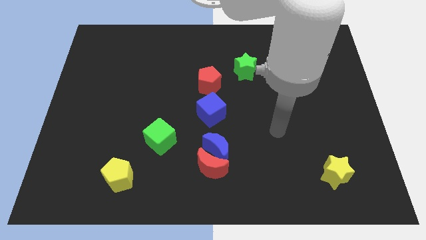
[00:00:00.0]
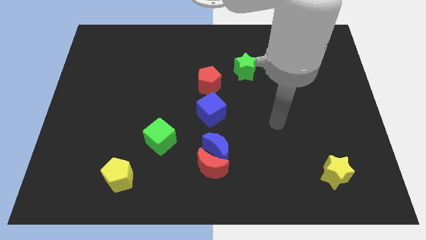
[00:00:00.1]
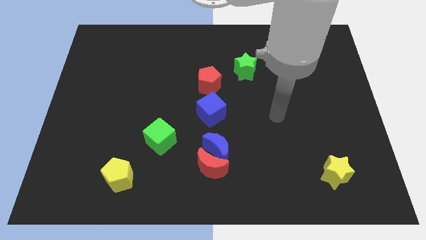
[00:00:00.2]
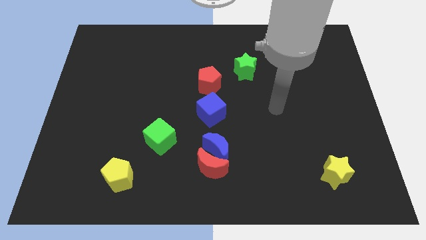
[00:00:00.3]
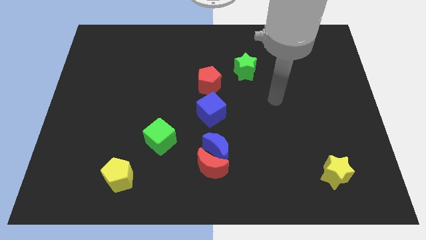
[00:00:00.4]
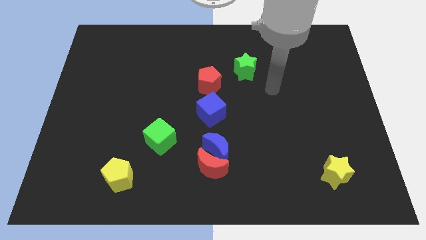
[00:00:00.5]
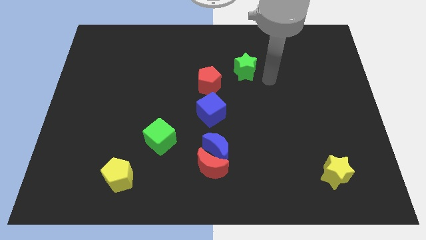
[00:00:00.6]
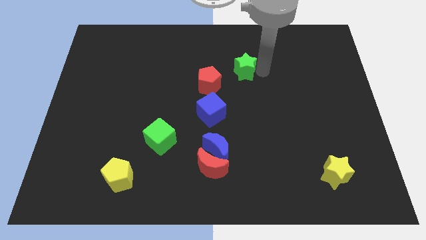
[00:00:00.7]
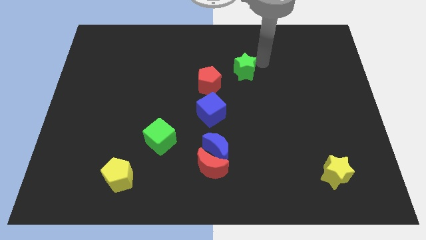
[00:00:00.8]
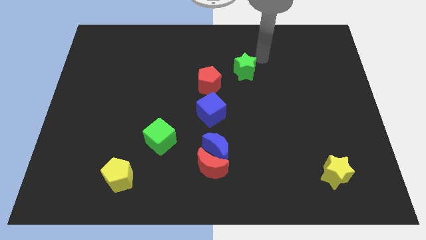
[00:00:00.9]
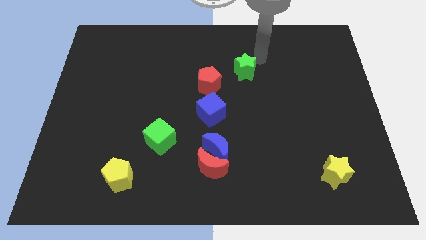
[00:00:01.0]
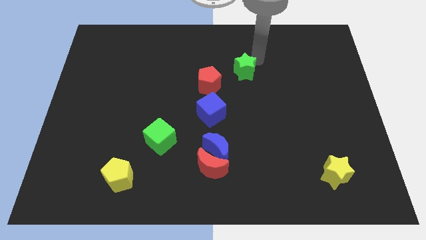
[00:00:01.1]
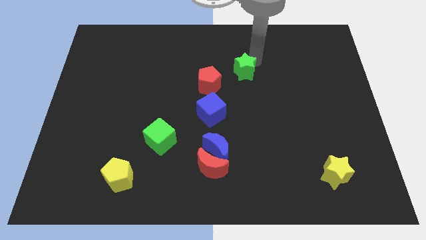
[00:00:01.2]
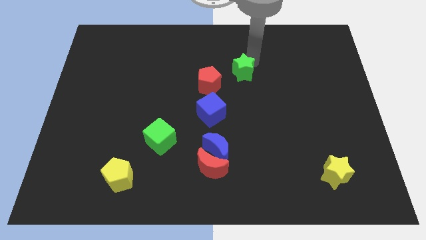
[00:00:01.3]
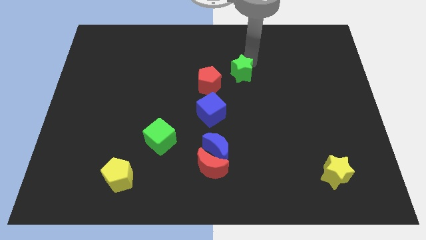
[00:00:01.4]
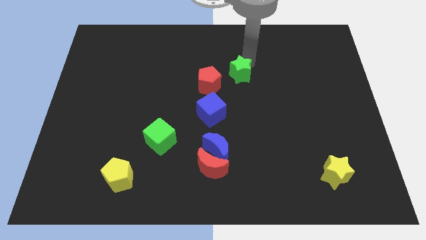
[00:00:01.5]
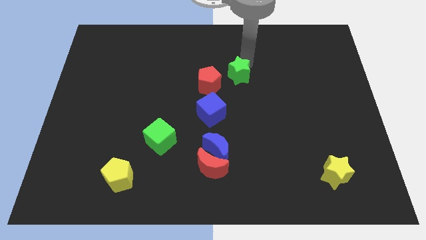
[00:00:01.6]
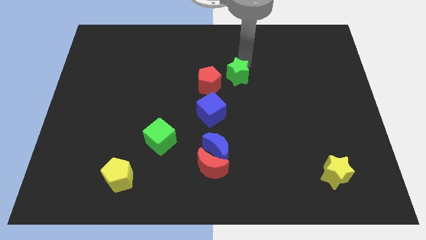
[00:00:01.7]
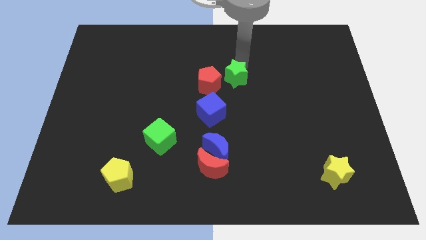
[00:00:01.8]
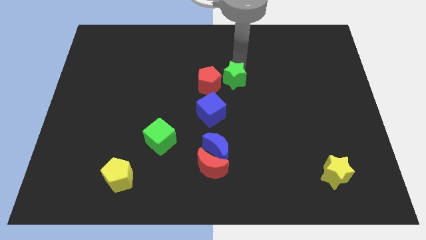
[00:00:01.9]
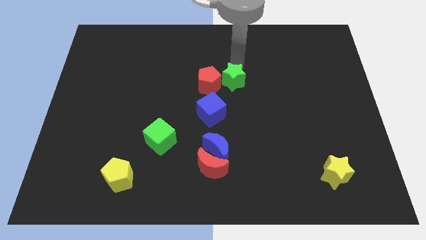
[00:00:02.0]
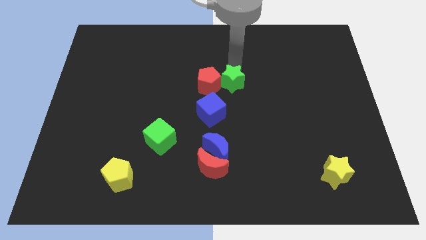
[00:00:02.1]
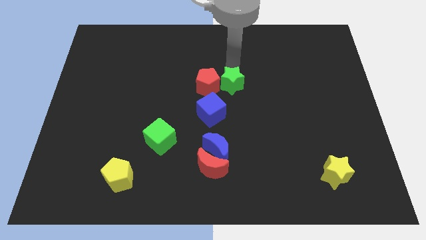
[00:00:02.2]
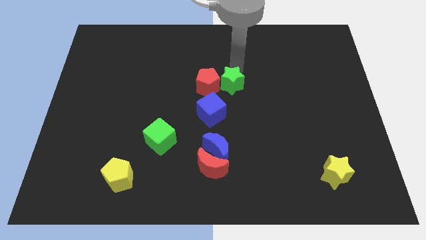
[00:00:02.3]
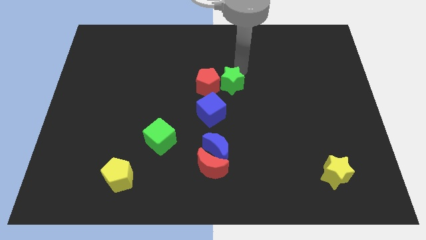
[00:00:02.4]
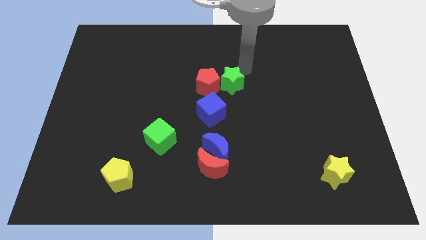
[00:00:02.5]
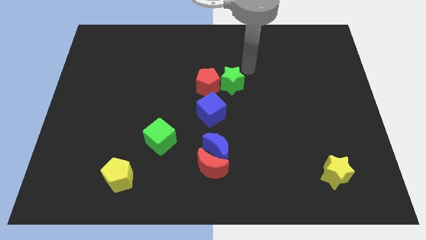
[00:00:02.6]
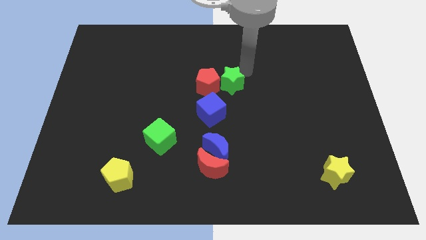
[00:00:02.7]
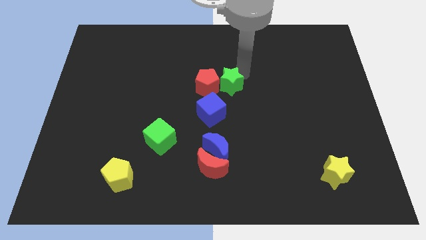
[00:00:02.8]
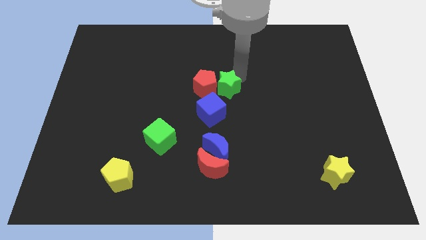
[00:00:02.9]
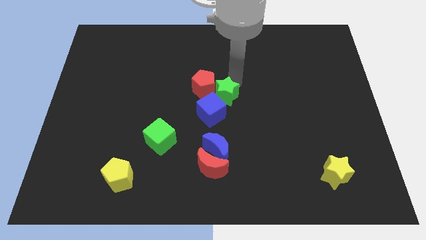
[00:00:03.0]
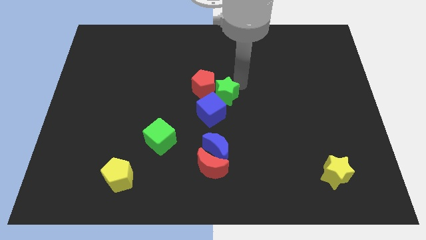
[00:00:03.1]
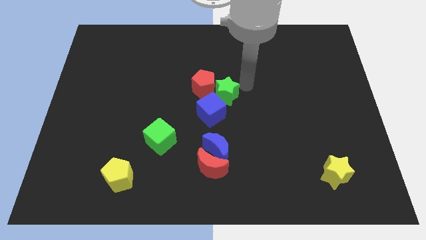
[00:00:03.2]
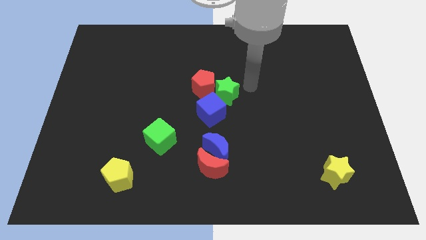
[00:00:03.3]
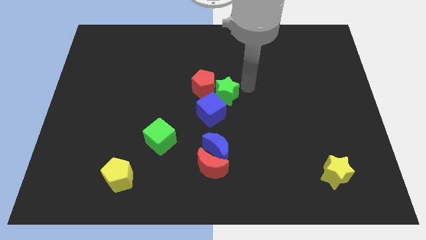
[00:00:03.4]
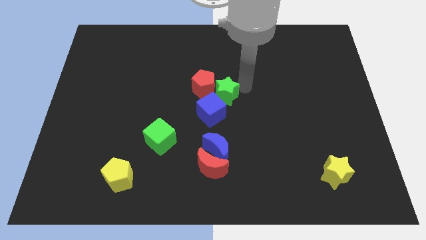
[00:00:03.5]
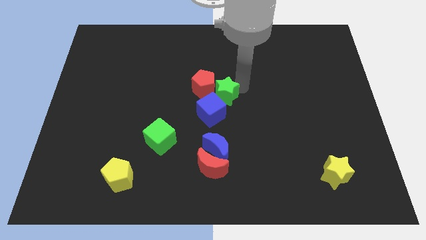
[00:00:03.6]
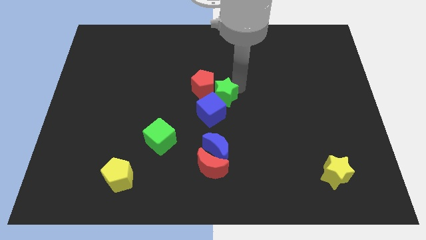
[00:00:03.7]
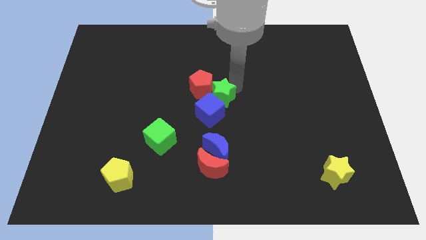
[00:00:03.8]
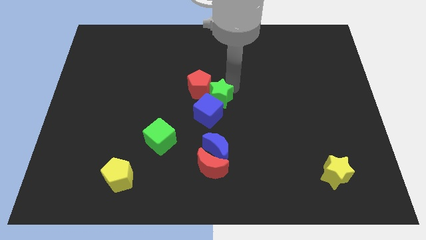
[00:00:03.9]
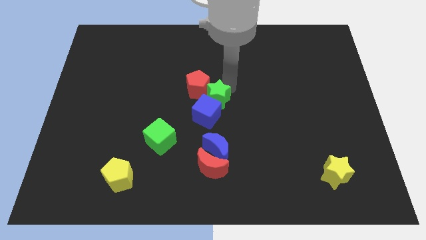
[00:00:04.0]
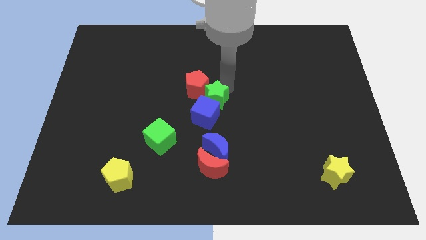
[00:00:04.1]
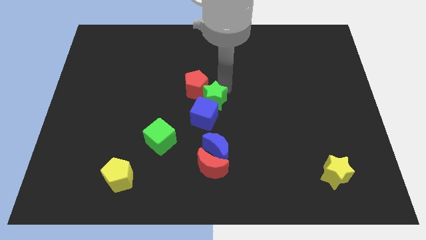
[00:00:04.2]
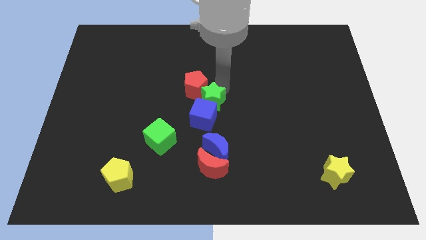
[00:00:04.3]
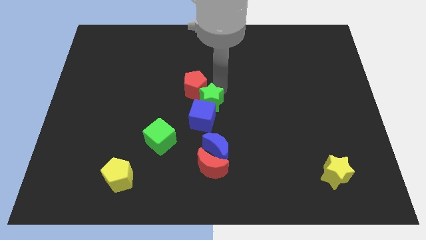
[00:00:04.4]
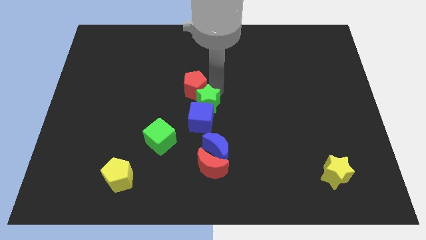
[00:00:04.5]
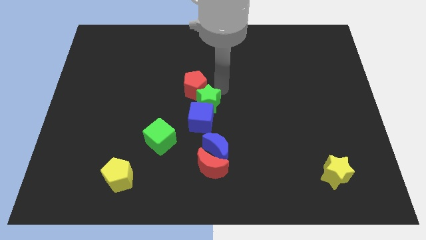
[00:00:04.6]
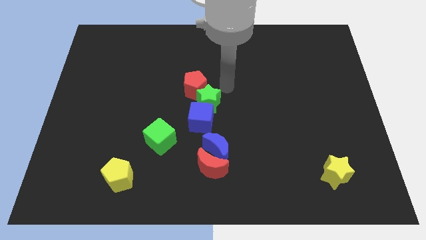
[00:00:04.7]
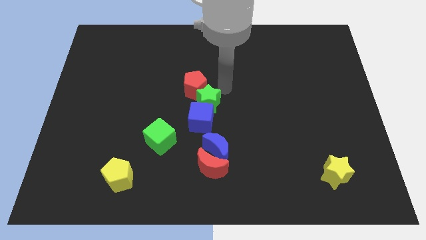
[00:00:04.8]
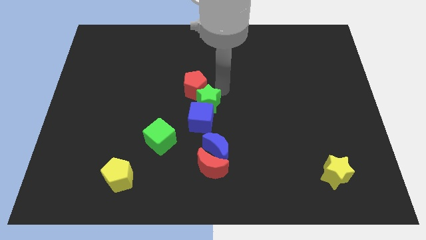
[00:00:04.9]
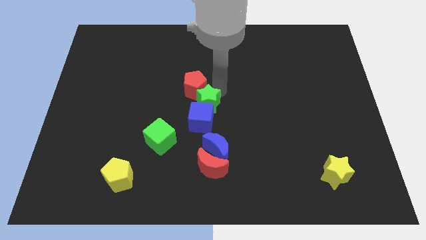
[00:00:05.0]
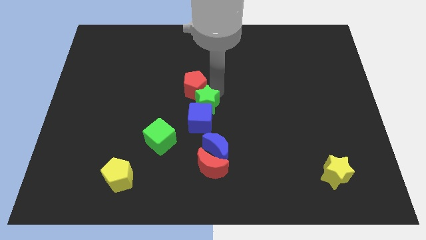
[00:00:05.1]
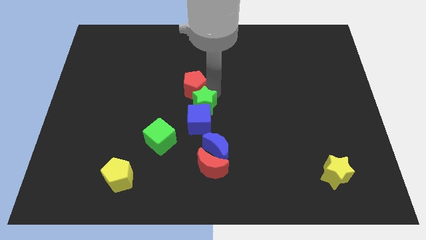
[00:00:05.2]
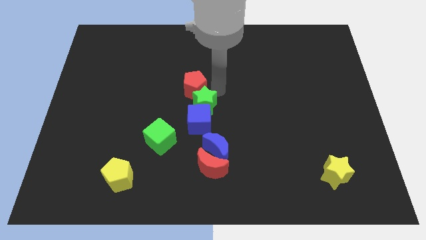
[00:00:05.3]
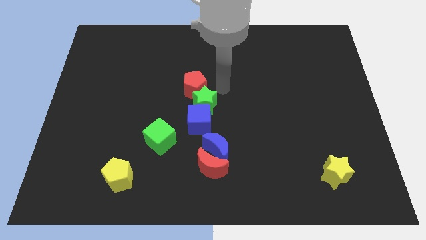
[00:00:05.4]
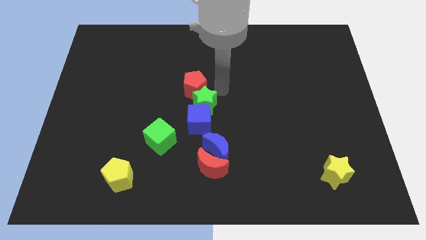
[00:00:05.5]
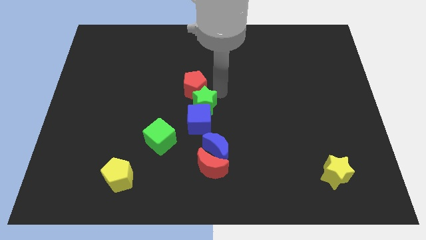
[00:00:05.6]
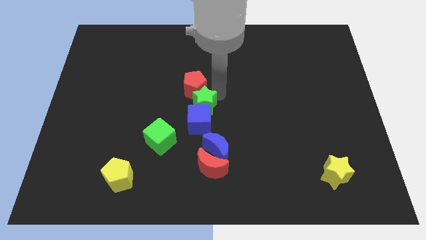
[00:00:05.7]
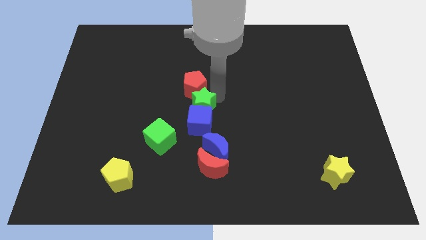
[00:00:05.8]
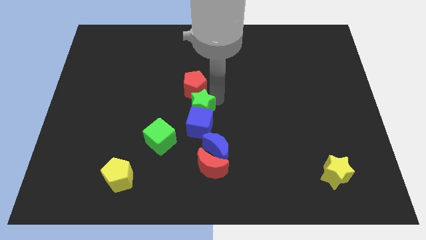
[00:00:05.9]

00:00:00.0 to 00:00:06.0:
move the green star diagonally up and to the right of the green cube

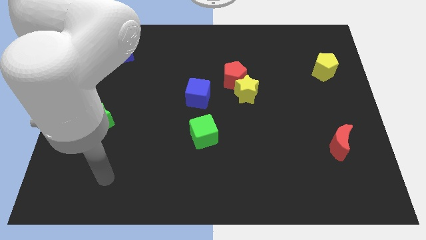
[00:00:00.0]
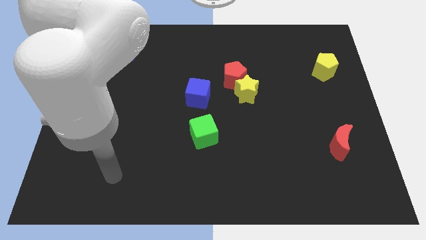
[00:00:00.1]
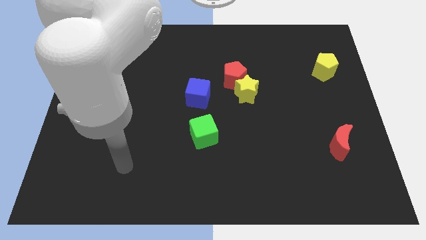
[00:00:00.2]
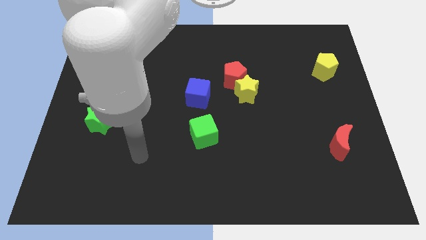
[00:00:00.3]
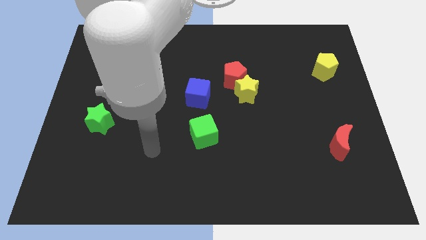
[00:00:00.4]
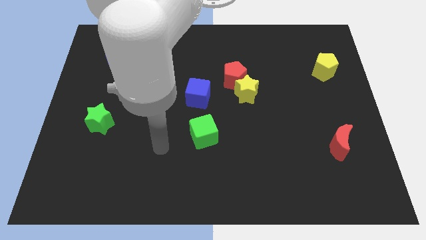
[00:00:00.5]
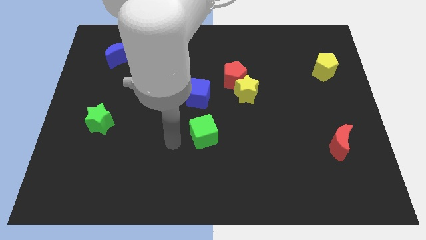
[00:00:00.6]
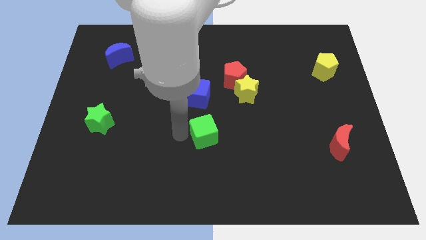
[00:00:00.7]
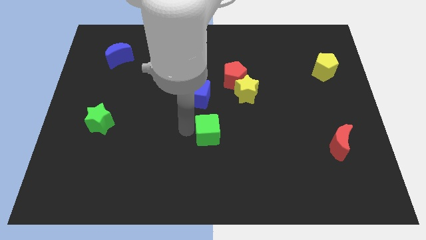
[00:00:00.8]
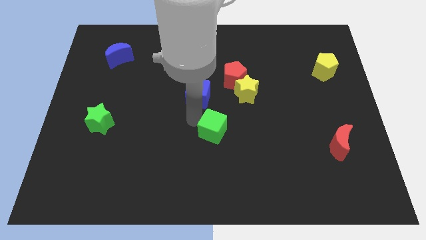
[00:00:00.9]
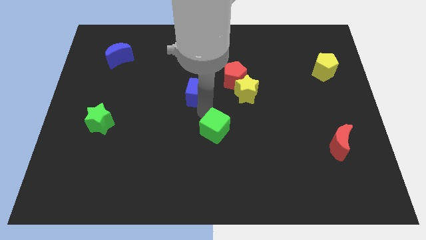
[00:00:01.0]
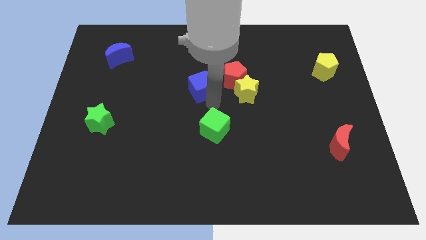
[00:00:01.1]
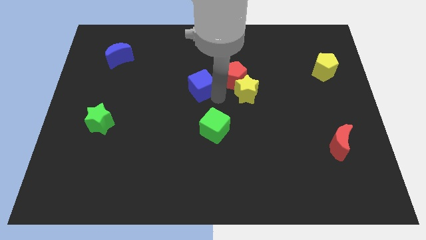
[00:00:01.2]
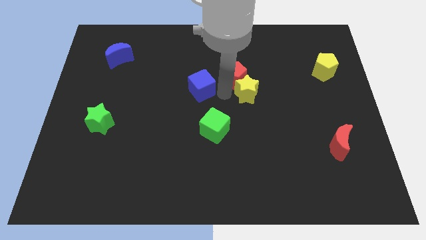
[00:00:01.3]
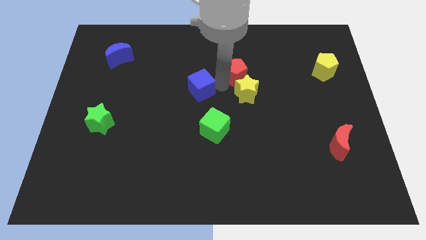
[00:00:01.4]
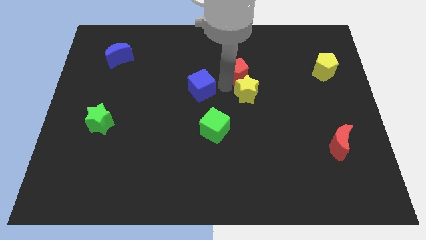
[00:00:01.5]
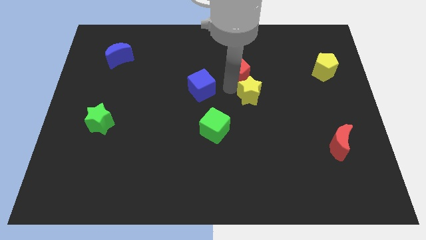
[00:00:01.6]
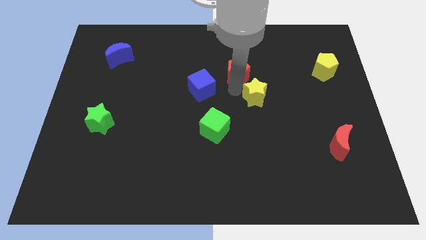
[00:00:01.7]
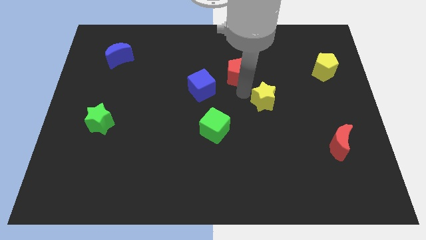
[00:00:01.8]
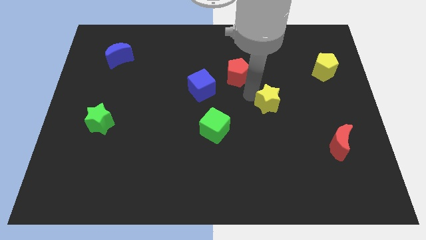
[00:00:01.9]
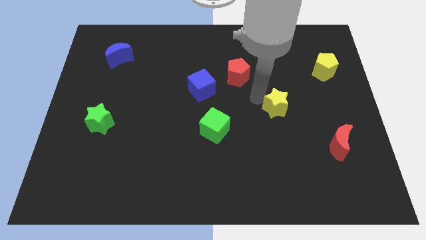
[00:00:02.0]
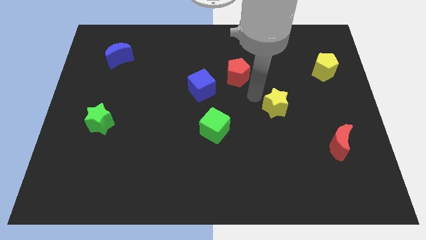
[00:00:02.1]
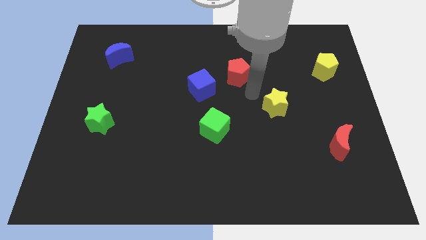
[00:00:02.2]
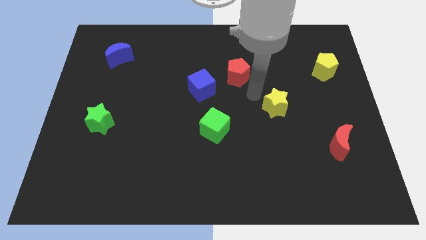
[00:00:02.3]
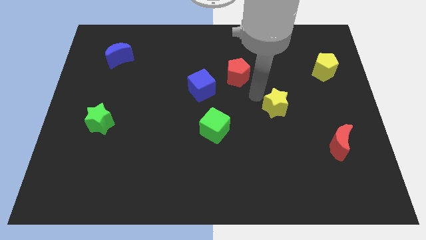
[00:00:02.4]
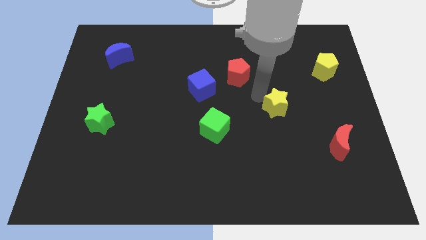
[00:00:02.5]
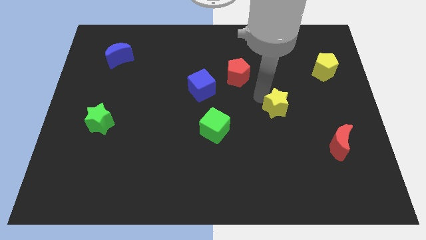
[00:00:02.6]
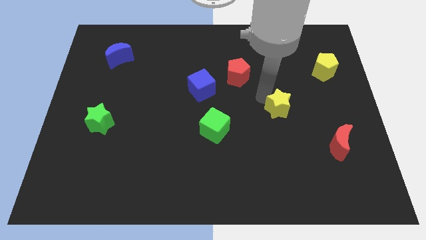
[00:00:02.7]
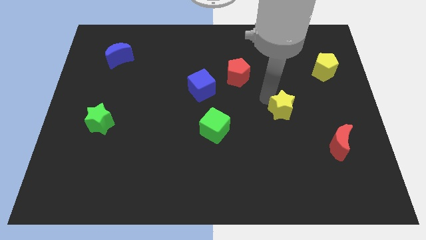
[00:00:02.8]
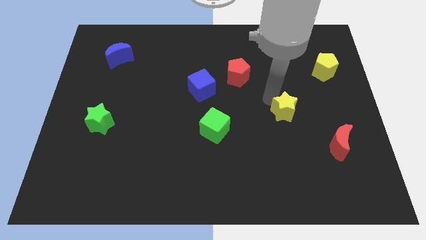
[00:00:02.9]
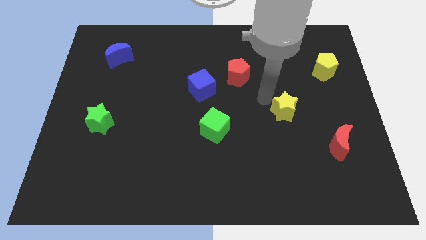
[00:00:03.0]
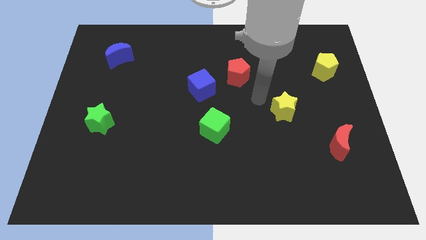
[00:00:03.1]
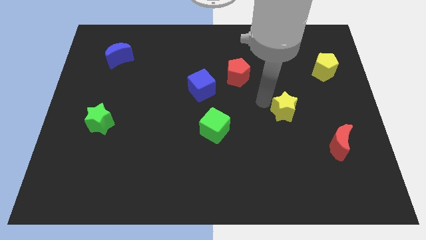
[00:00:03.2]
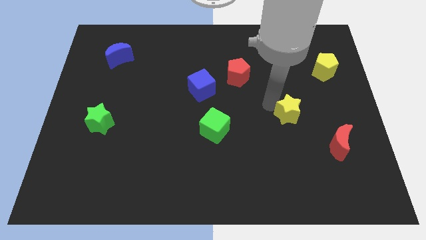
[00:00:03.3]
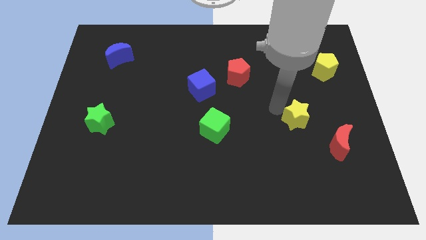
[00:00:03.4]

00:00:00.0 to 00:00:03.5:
put the yellow star to the top left side of the red moon
